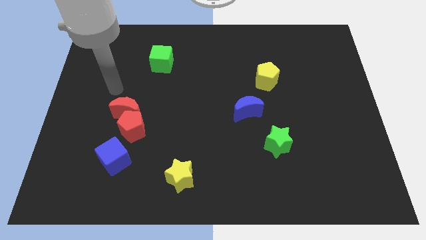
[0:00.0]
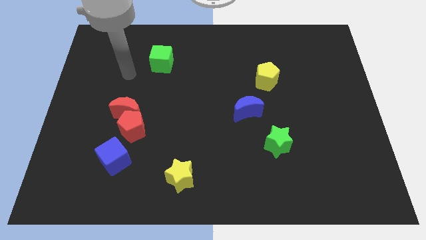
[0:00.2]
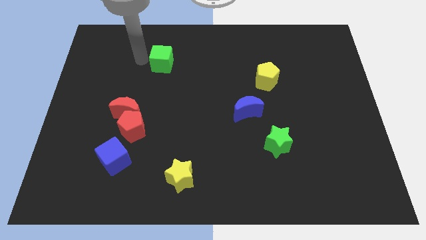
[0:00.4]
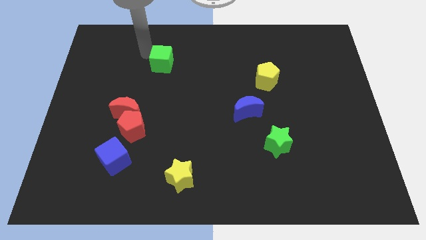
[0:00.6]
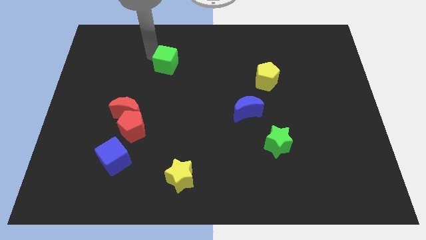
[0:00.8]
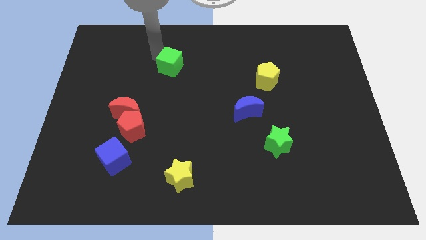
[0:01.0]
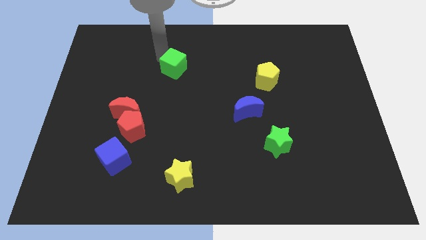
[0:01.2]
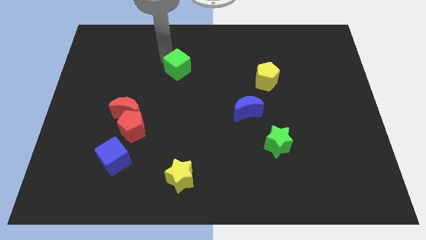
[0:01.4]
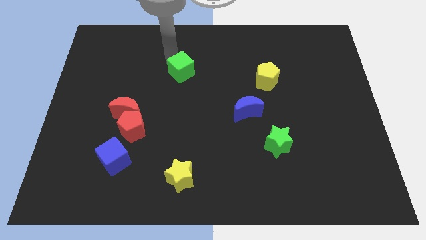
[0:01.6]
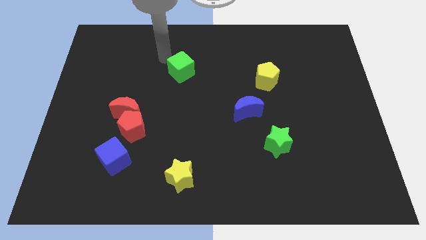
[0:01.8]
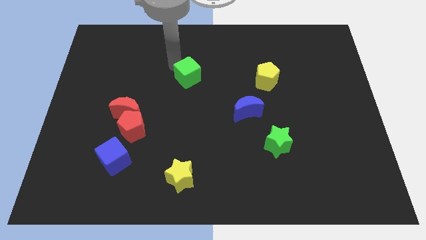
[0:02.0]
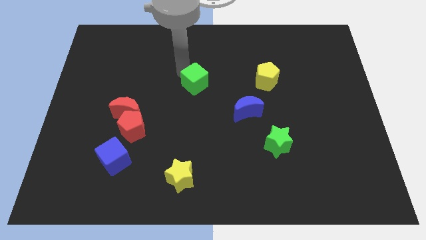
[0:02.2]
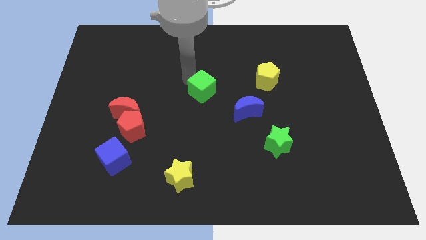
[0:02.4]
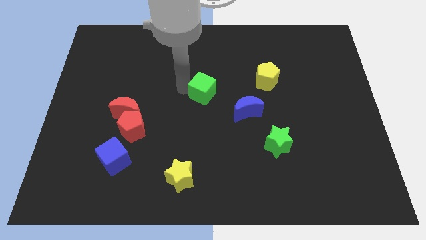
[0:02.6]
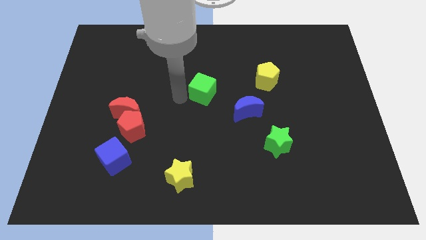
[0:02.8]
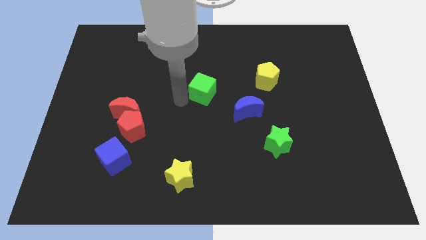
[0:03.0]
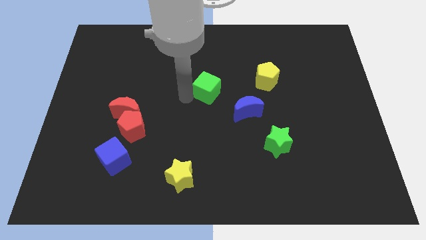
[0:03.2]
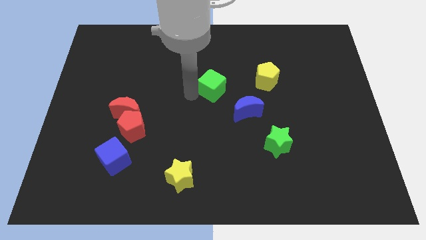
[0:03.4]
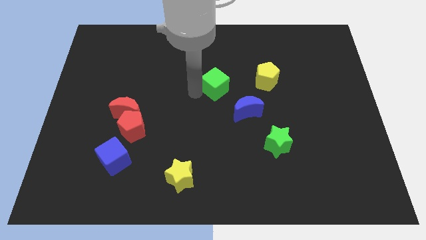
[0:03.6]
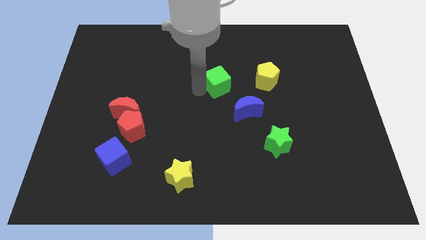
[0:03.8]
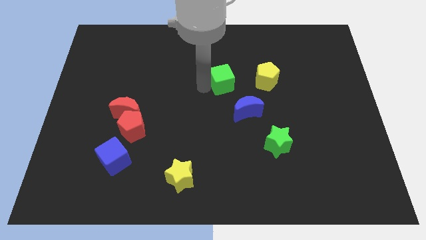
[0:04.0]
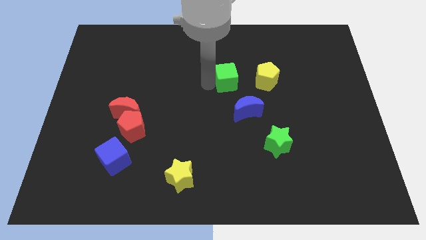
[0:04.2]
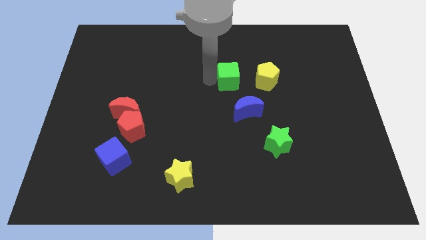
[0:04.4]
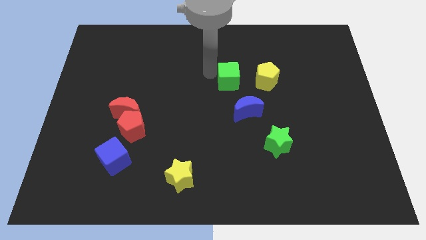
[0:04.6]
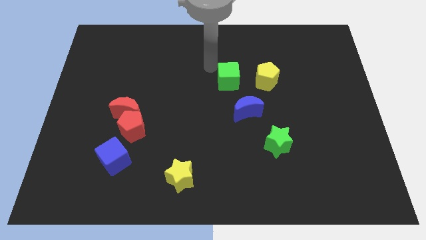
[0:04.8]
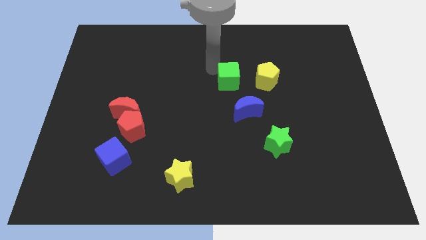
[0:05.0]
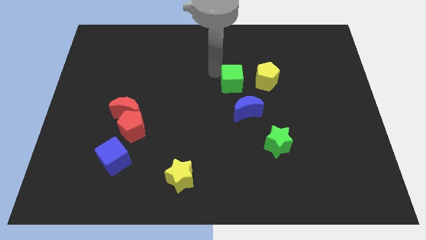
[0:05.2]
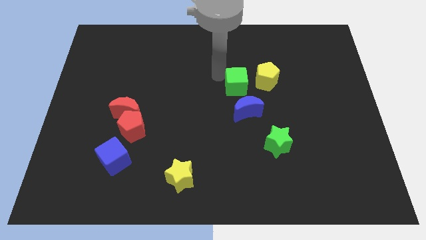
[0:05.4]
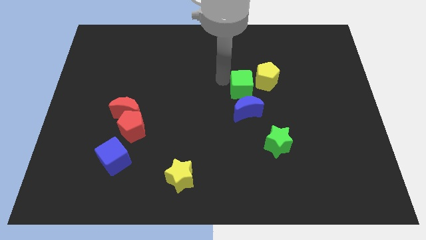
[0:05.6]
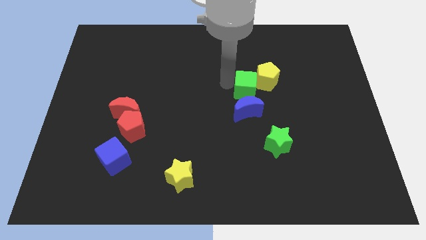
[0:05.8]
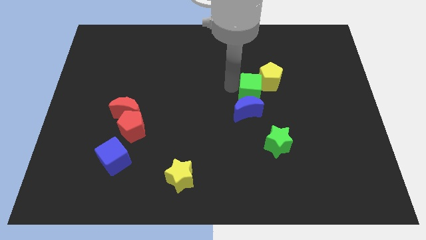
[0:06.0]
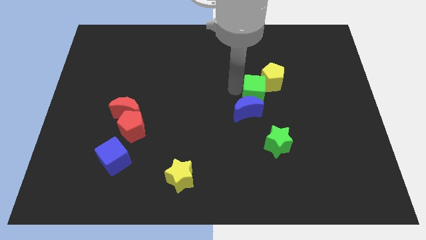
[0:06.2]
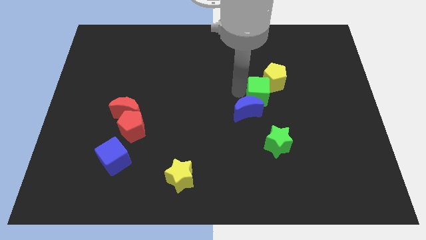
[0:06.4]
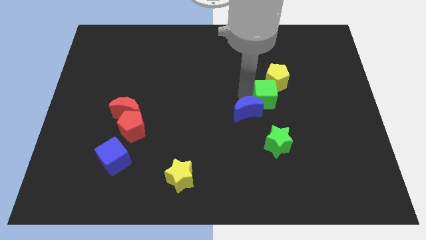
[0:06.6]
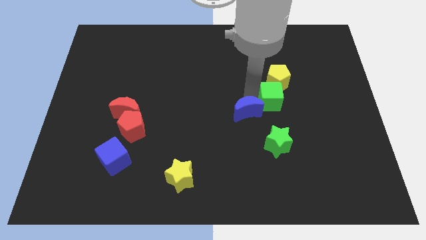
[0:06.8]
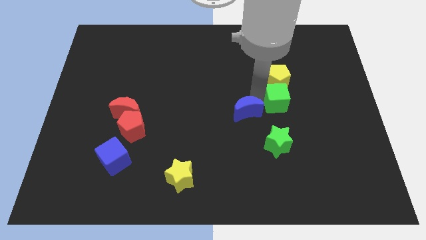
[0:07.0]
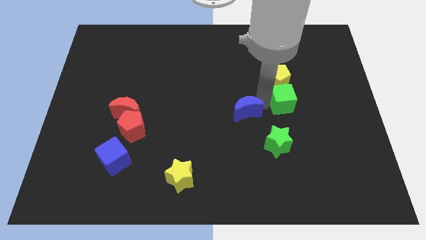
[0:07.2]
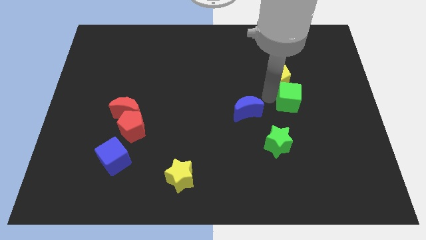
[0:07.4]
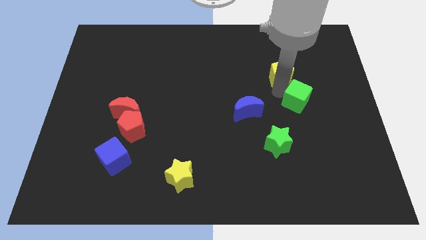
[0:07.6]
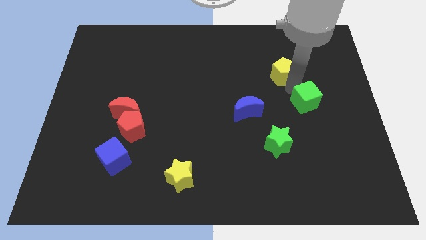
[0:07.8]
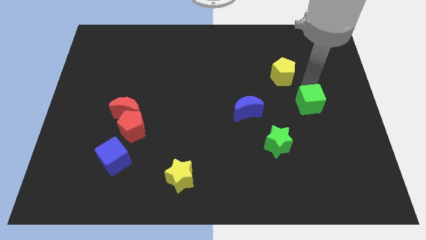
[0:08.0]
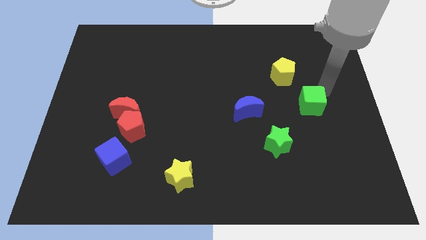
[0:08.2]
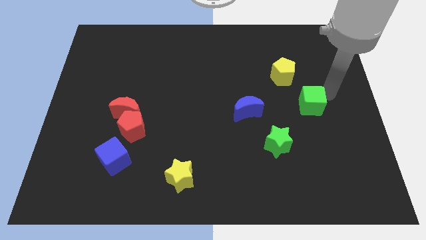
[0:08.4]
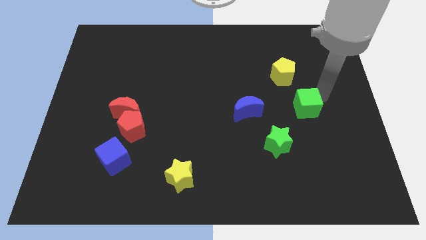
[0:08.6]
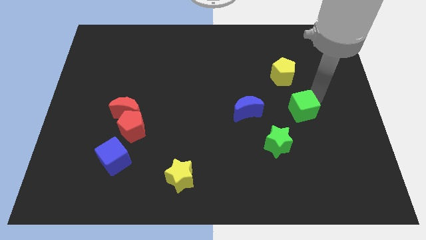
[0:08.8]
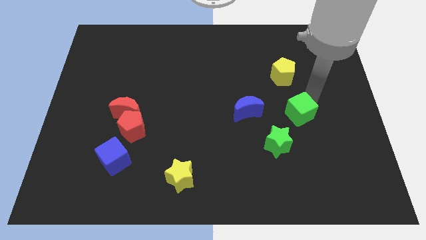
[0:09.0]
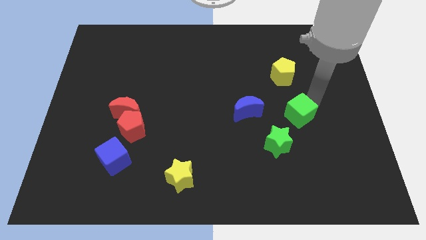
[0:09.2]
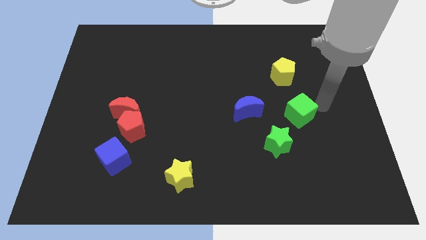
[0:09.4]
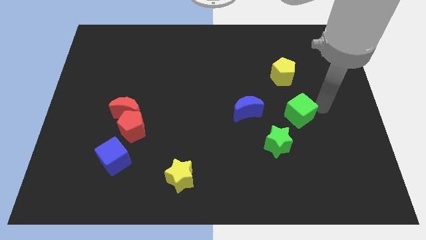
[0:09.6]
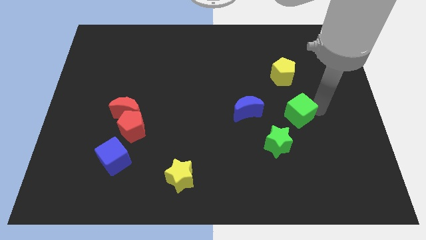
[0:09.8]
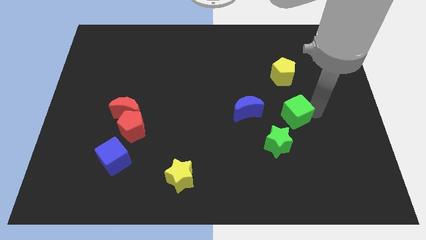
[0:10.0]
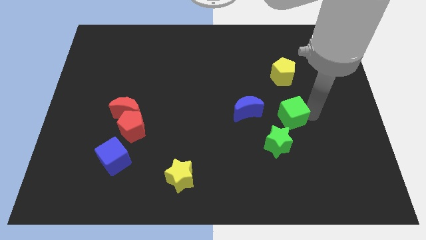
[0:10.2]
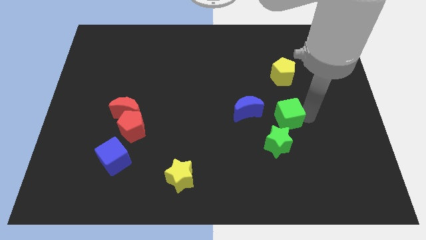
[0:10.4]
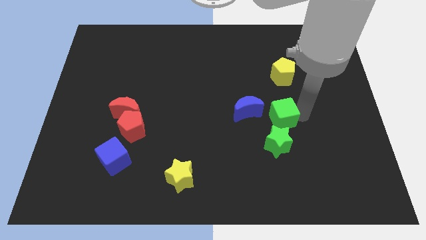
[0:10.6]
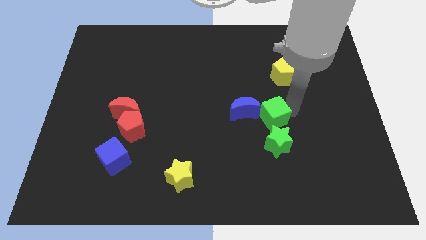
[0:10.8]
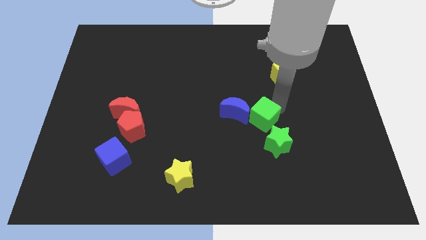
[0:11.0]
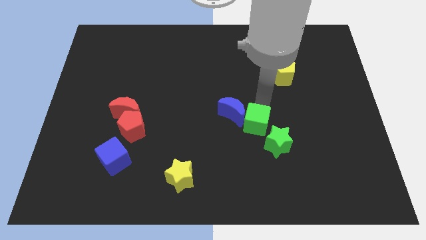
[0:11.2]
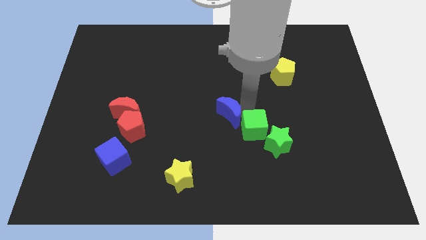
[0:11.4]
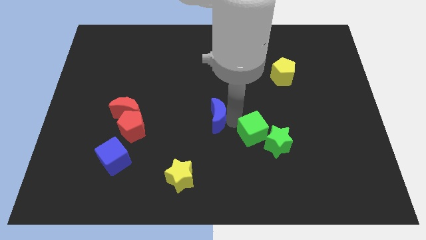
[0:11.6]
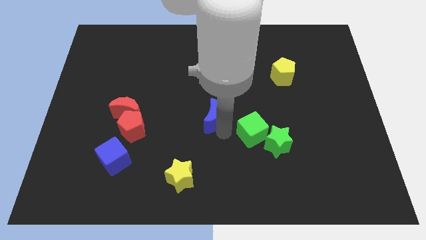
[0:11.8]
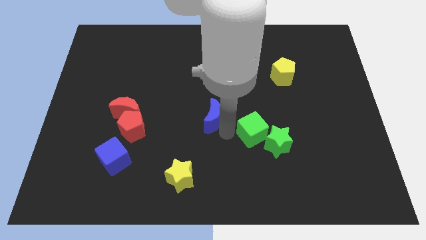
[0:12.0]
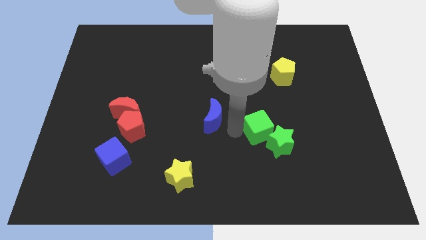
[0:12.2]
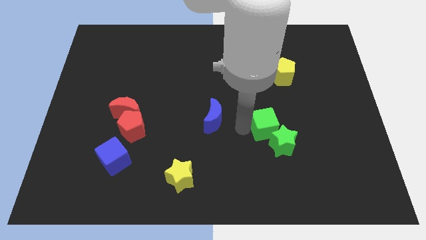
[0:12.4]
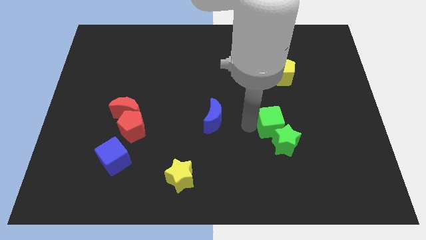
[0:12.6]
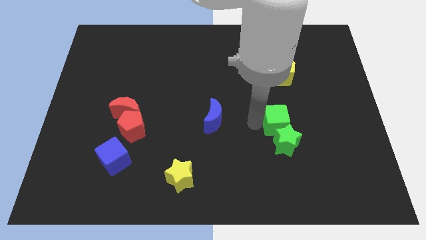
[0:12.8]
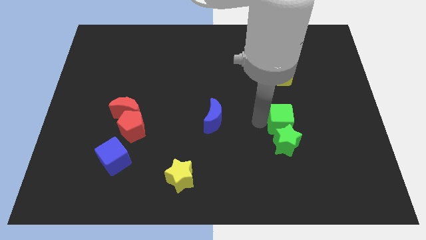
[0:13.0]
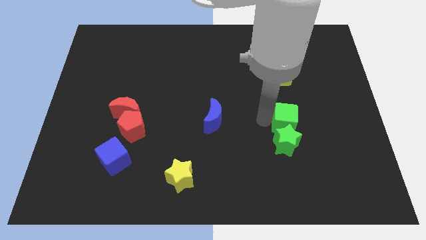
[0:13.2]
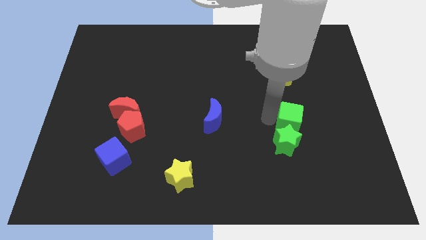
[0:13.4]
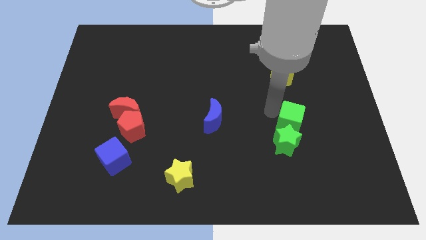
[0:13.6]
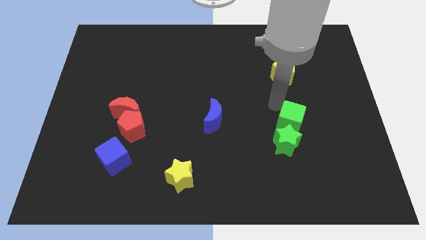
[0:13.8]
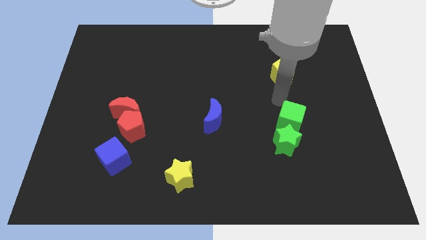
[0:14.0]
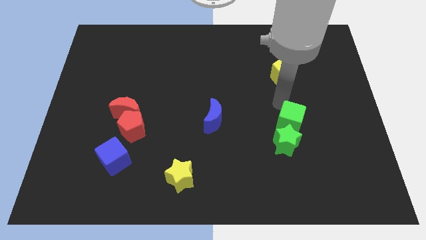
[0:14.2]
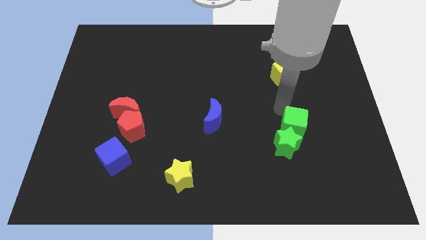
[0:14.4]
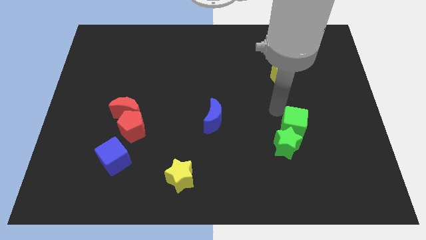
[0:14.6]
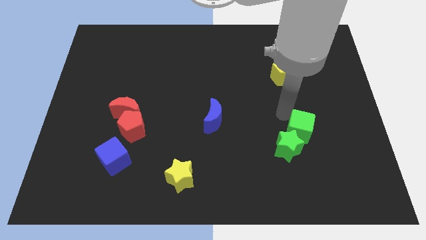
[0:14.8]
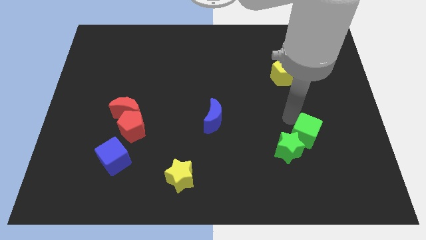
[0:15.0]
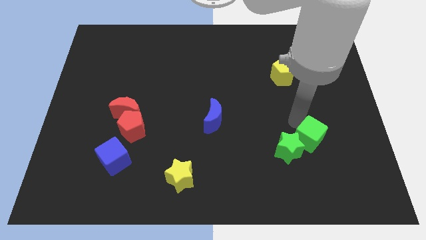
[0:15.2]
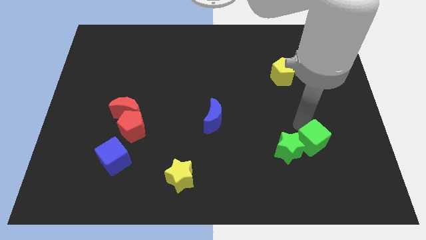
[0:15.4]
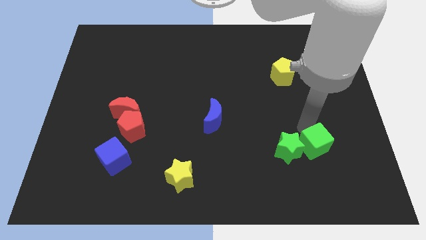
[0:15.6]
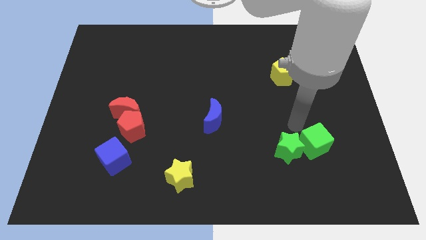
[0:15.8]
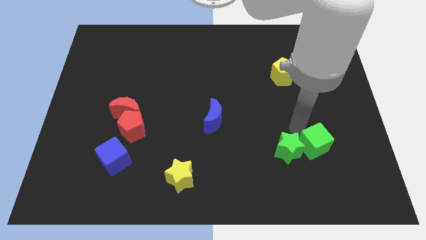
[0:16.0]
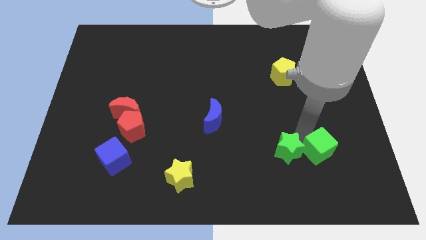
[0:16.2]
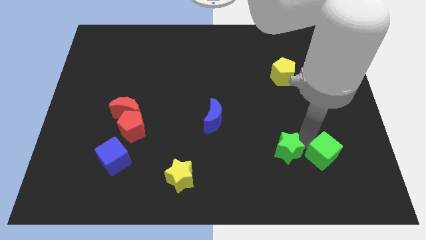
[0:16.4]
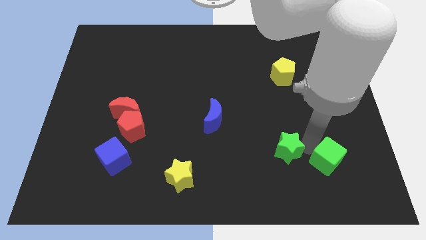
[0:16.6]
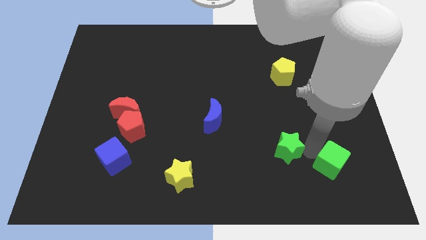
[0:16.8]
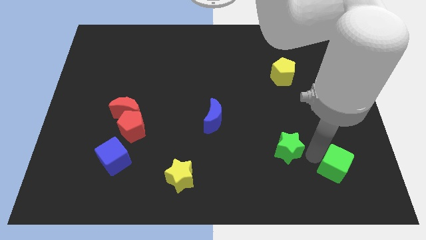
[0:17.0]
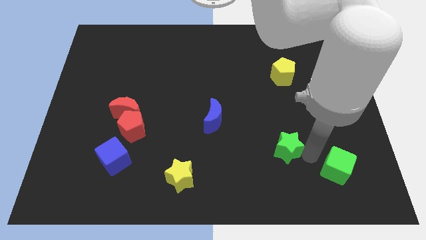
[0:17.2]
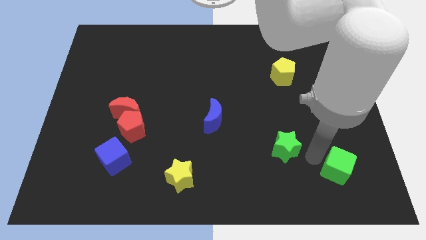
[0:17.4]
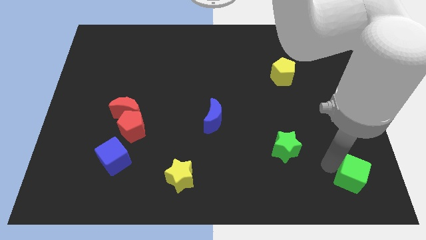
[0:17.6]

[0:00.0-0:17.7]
move the green cube to the bottom right of the board
